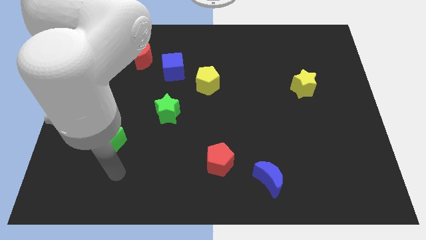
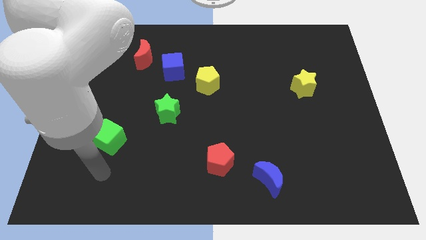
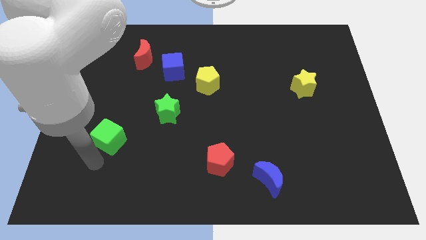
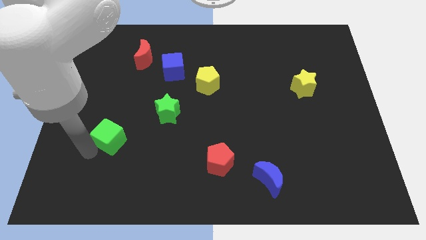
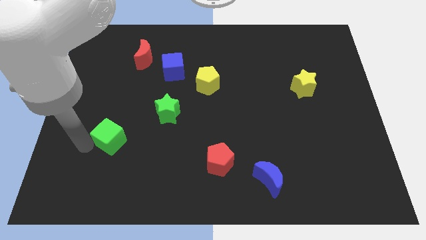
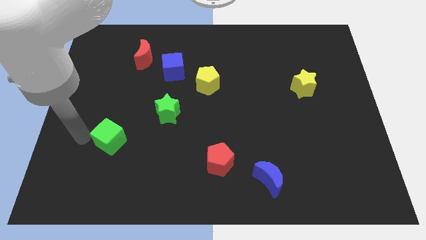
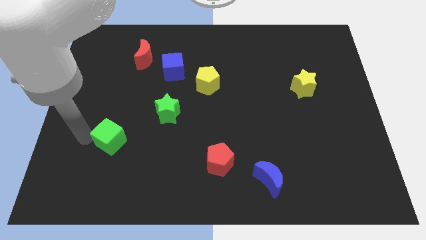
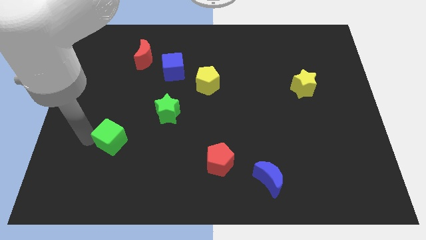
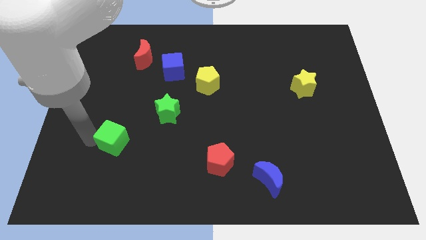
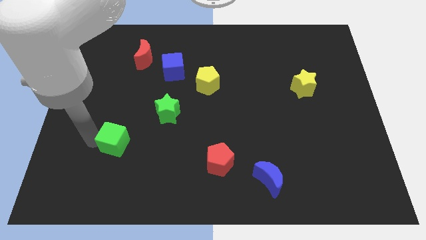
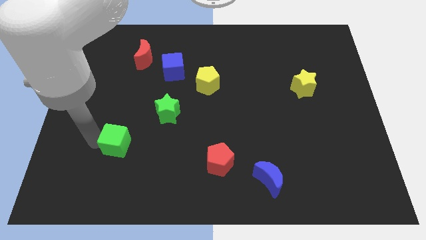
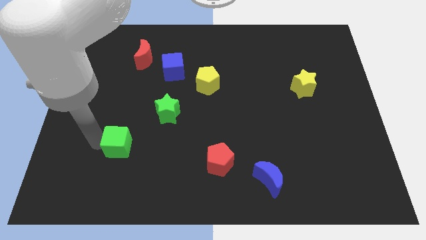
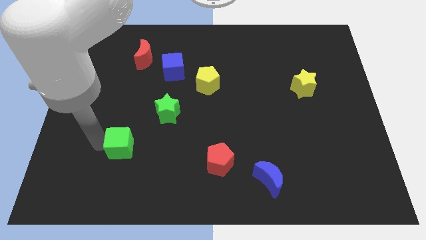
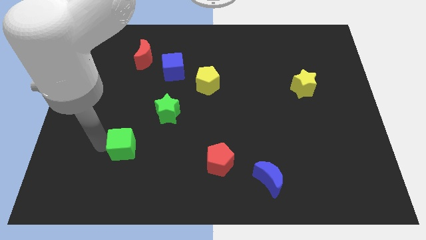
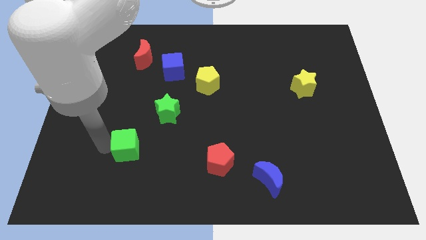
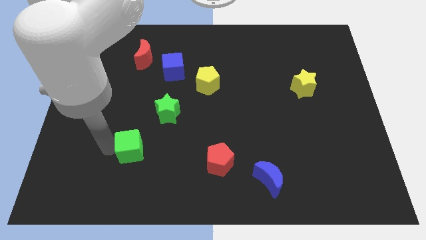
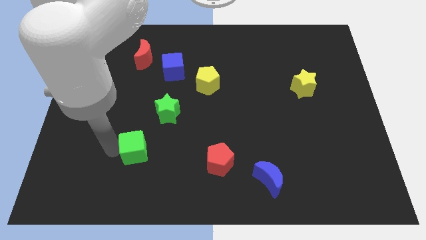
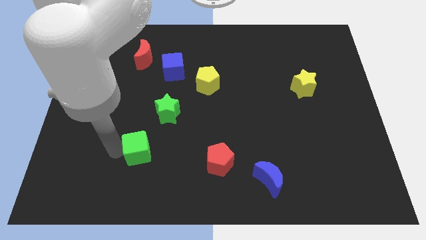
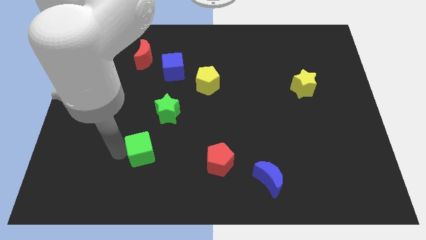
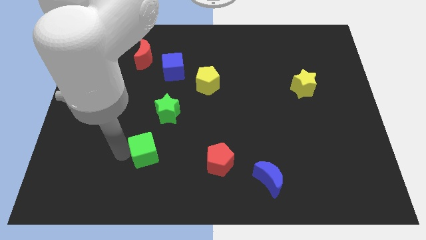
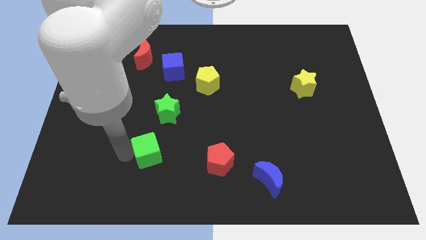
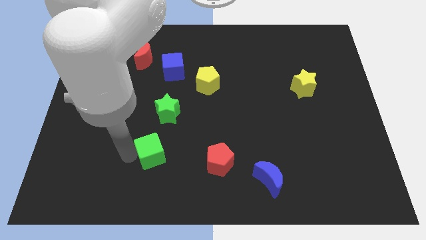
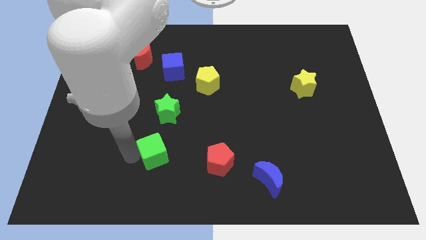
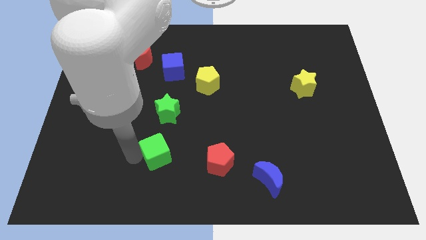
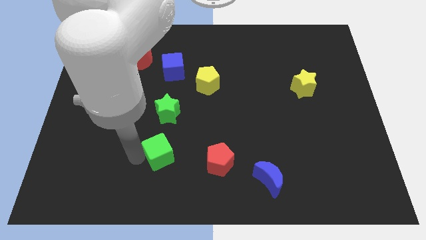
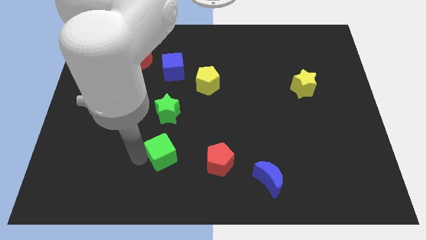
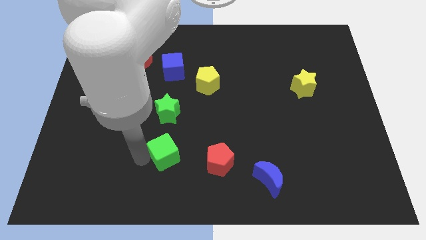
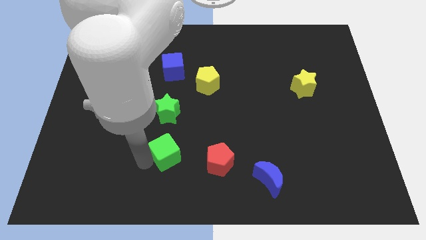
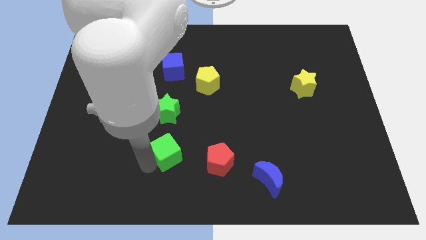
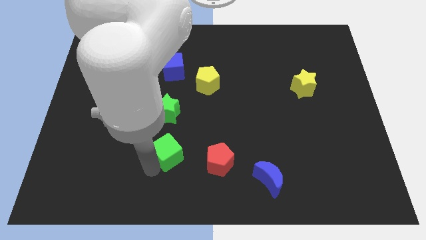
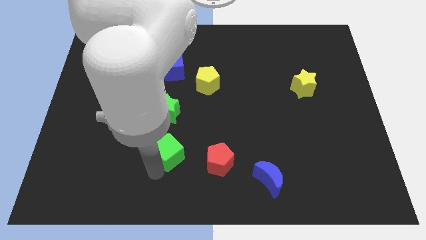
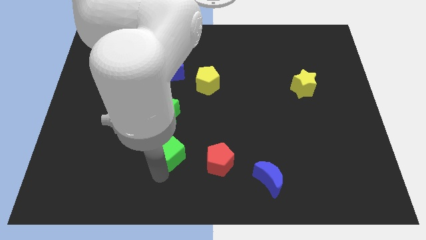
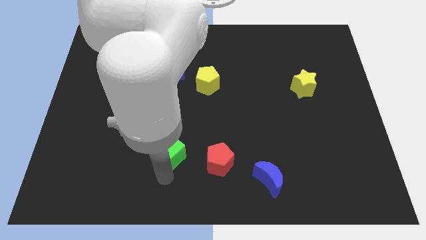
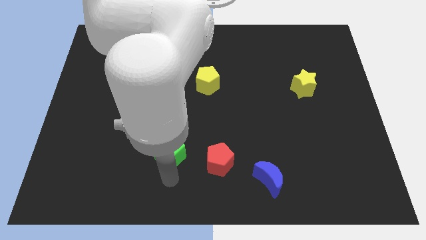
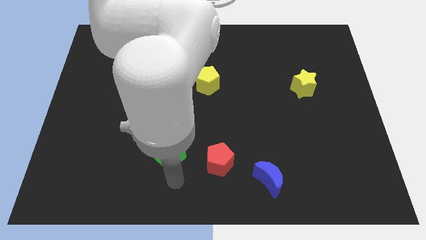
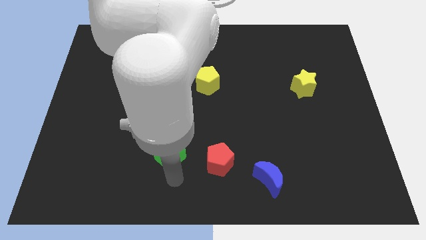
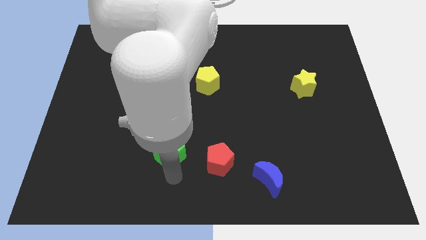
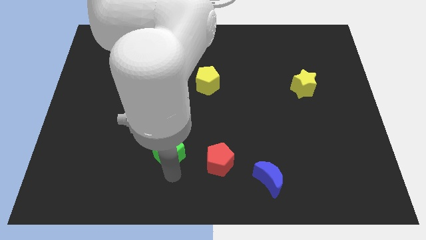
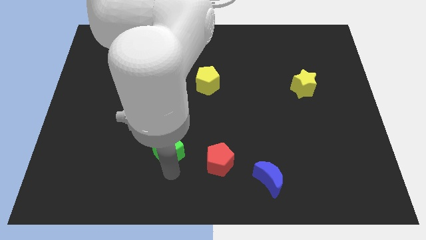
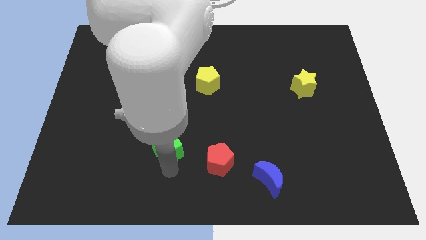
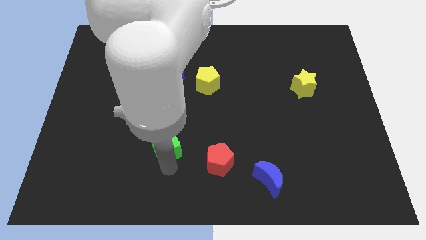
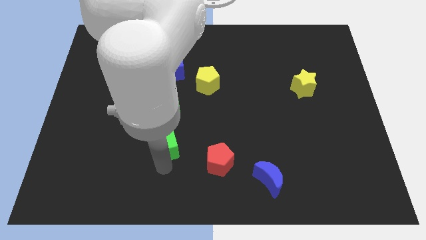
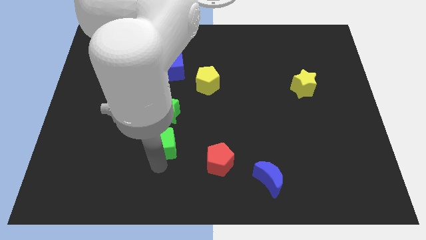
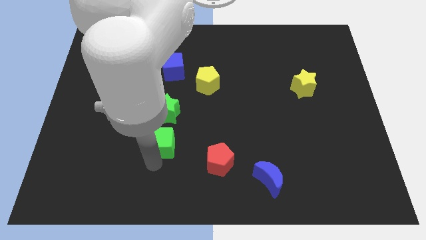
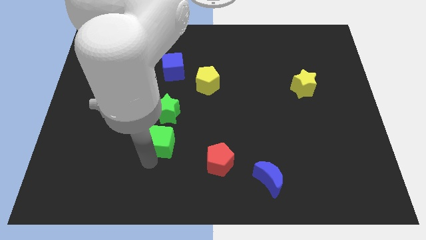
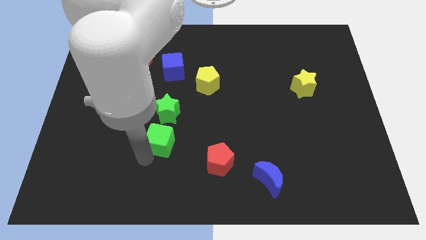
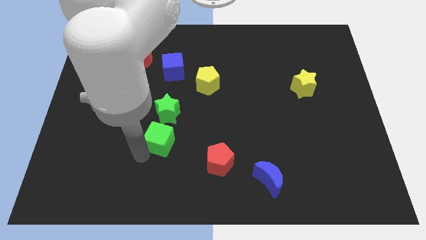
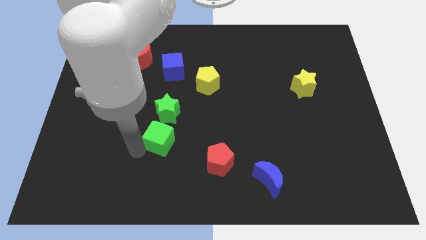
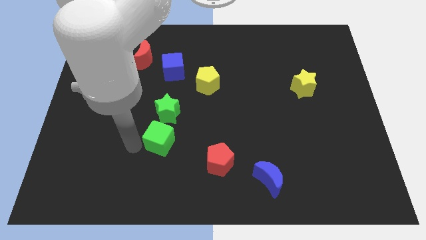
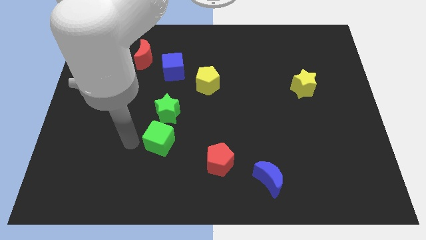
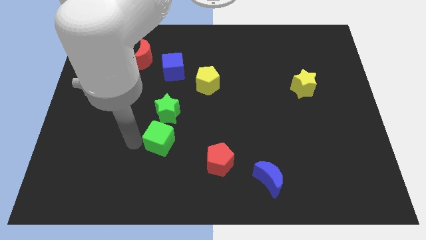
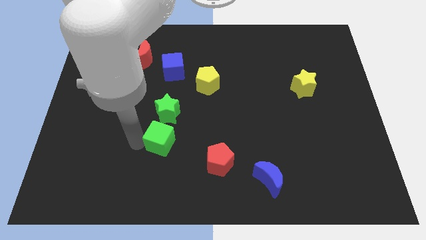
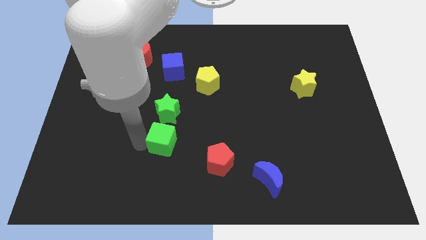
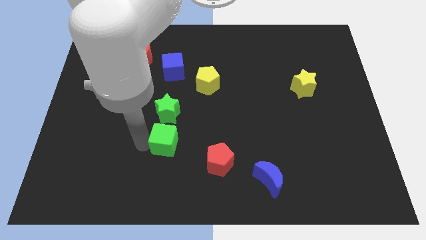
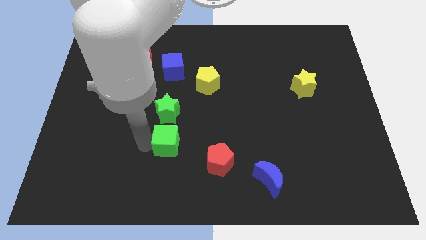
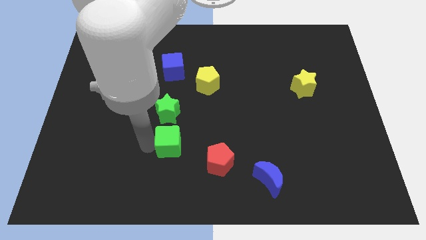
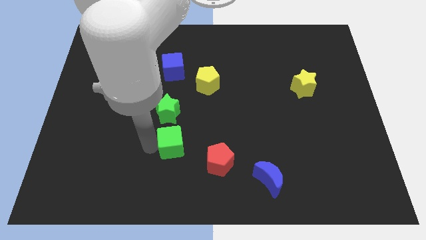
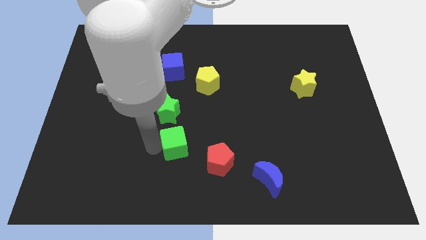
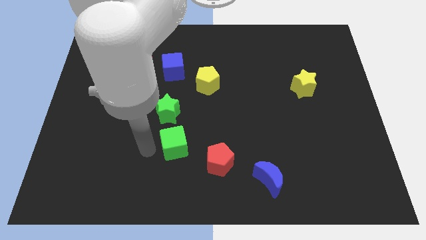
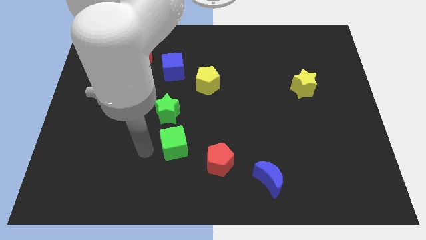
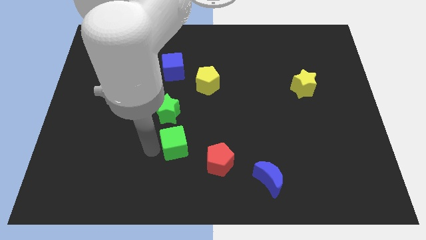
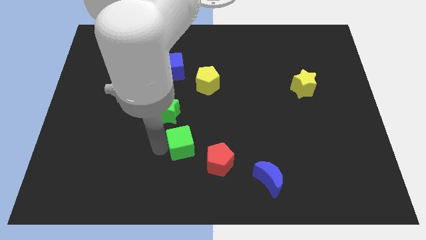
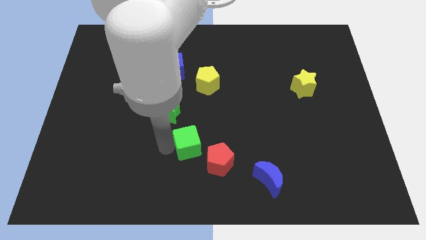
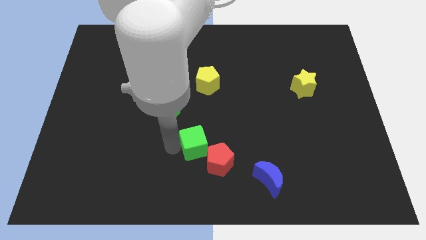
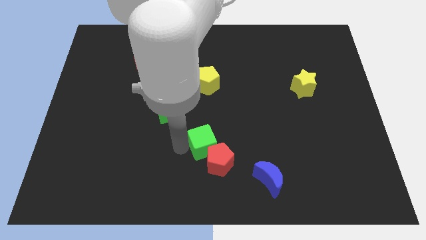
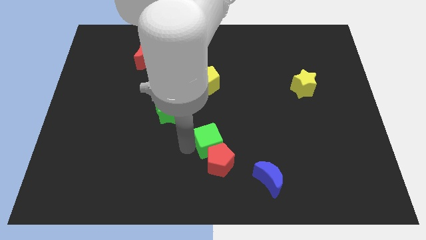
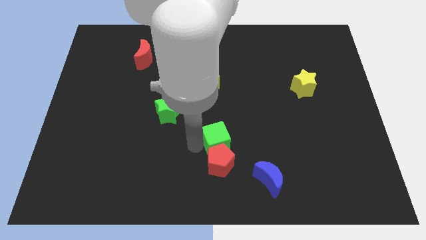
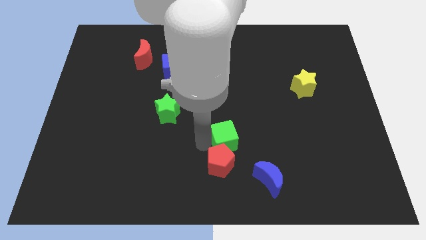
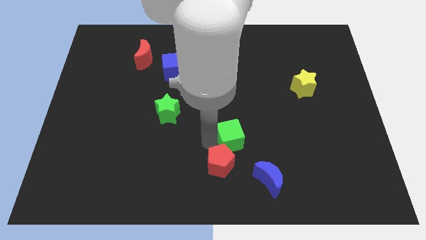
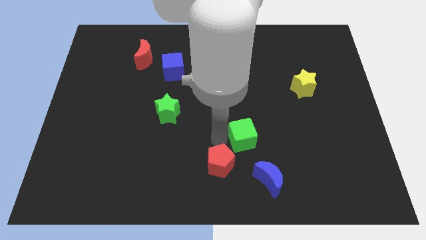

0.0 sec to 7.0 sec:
push the green cube to the top side of the blue moon

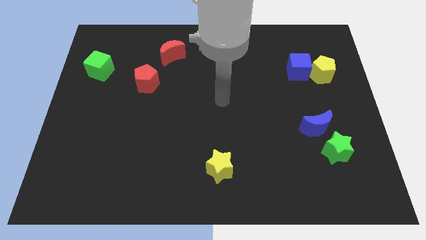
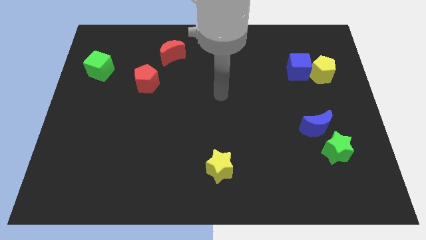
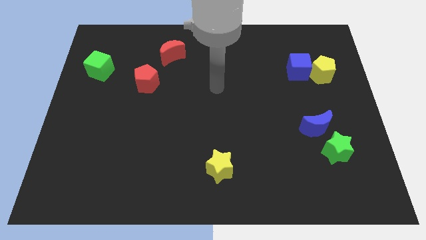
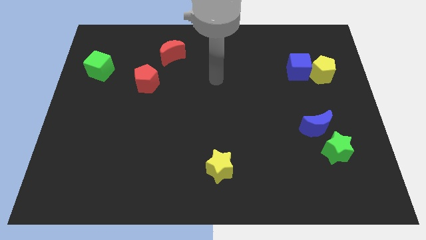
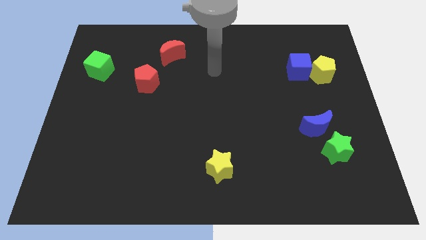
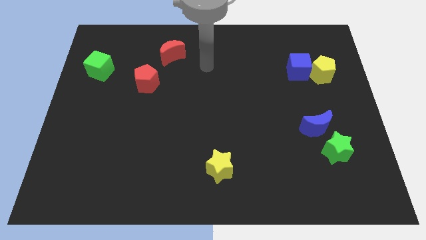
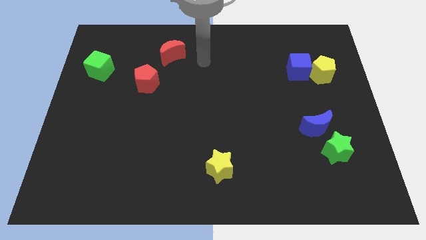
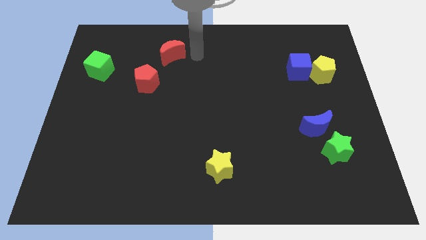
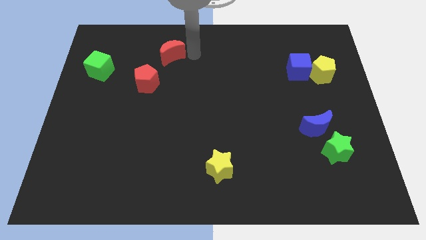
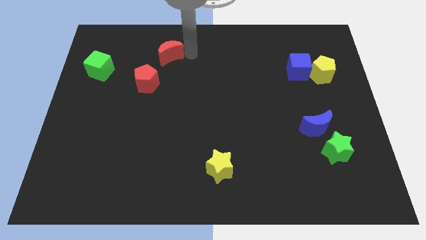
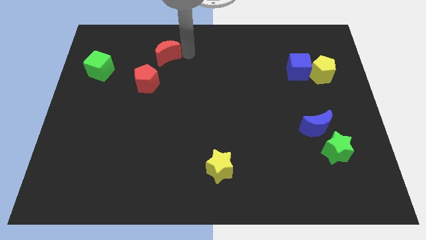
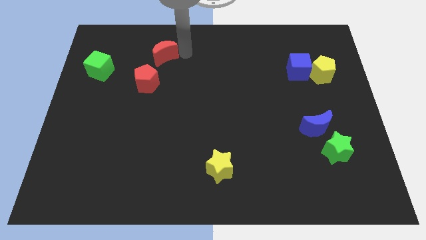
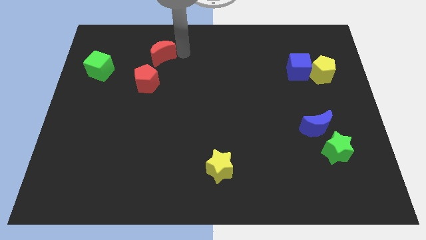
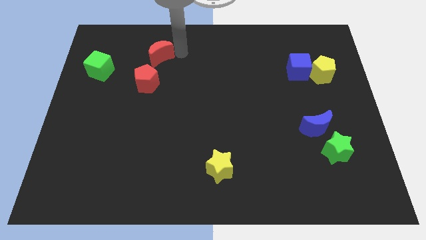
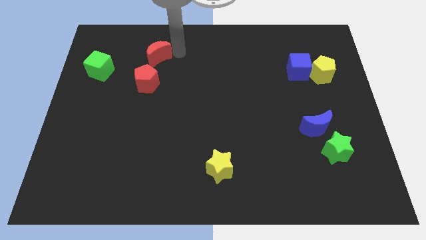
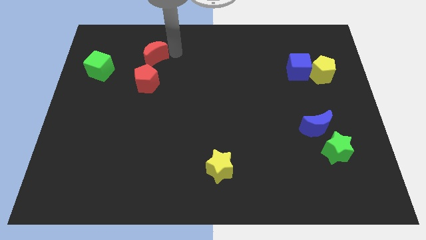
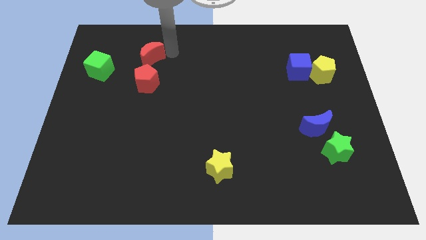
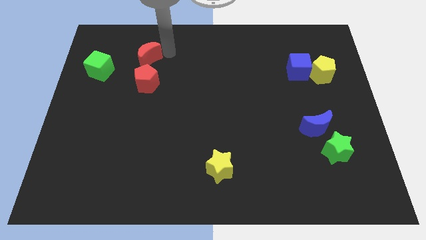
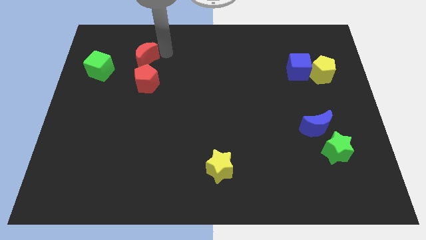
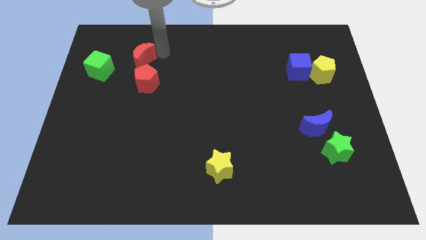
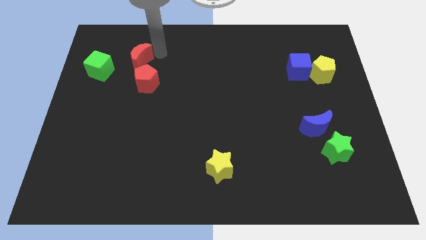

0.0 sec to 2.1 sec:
slide the red moon to the top right side of the green cube
